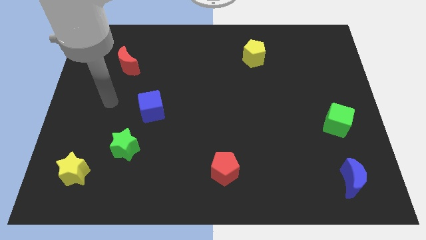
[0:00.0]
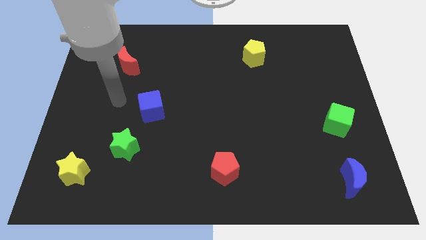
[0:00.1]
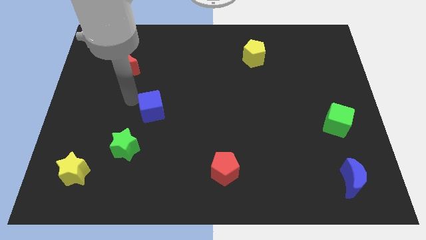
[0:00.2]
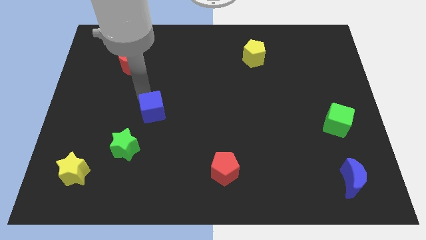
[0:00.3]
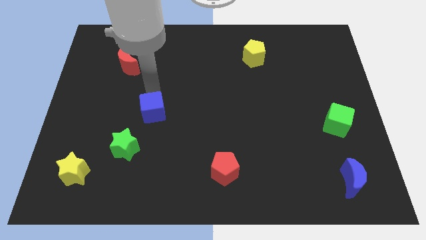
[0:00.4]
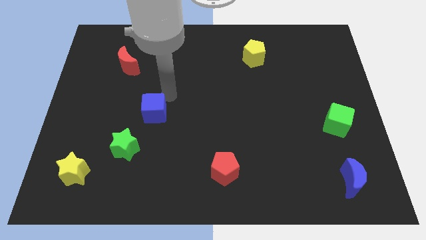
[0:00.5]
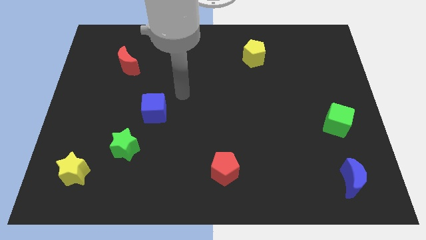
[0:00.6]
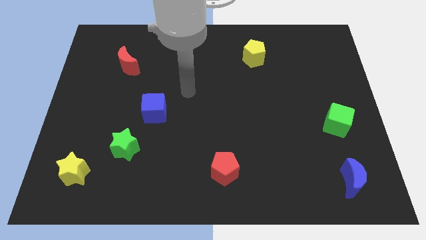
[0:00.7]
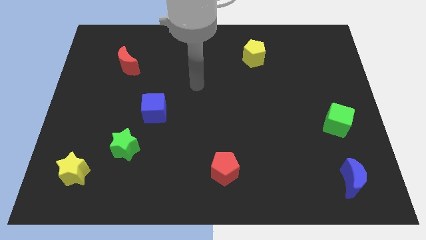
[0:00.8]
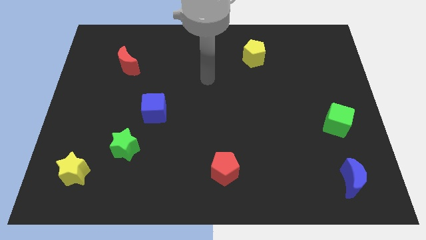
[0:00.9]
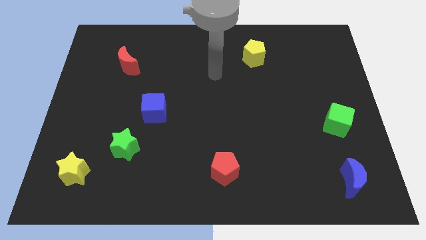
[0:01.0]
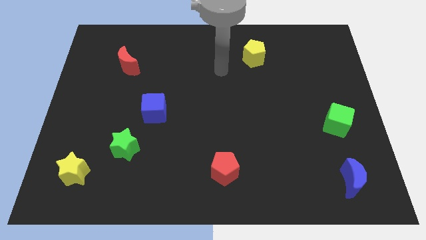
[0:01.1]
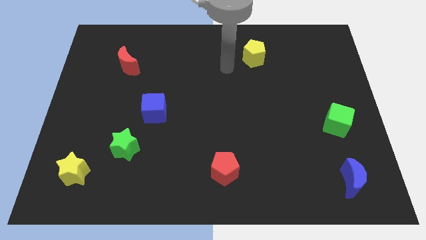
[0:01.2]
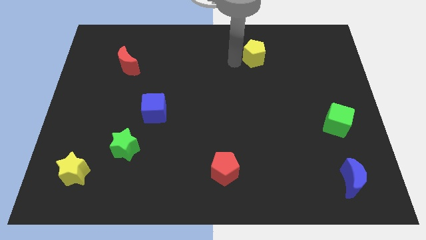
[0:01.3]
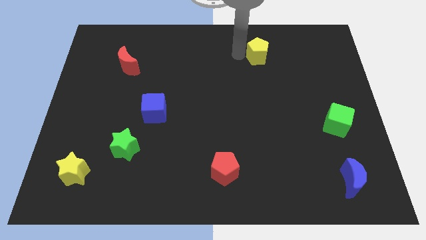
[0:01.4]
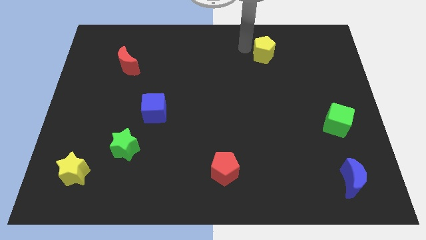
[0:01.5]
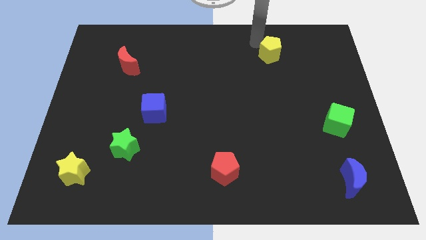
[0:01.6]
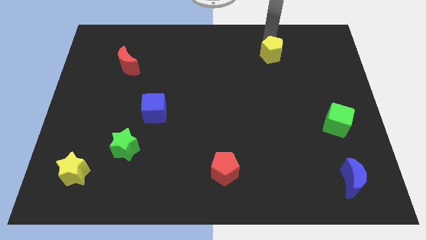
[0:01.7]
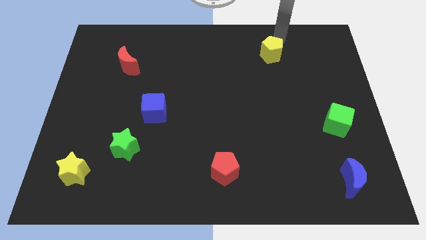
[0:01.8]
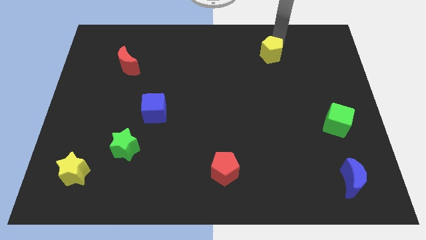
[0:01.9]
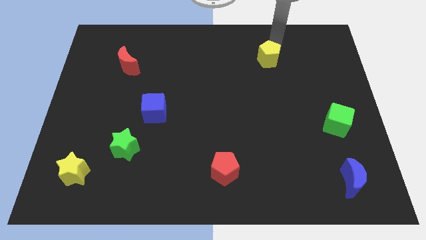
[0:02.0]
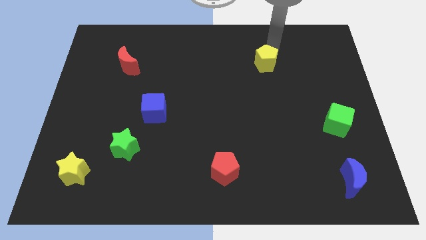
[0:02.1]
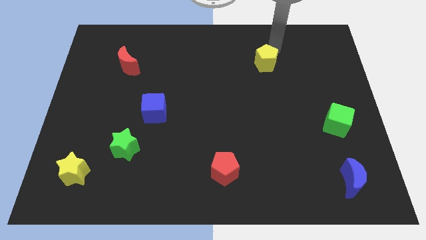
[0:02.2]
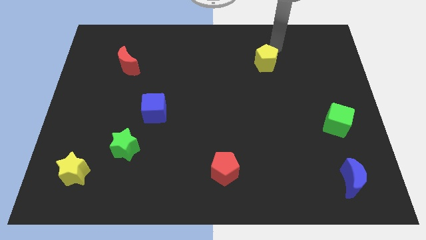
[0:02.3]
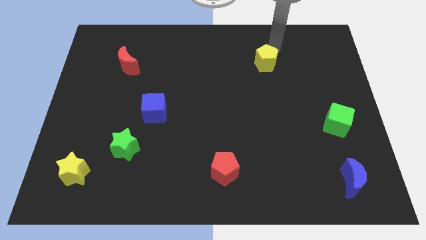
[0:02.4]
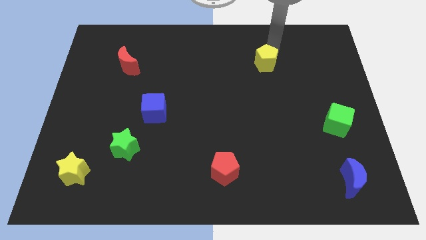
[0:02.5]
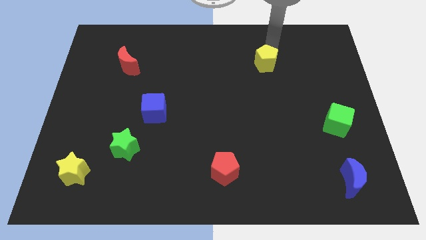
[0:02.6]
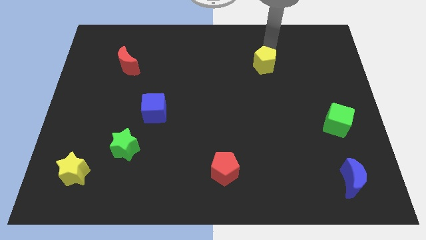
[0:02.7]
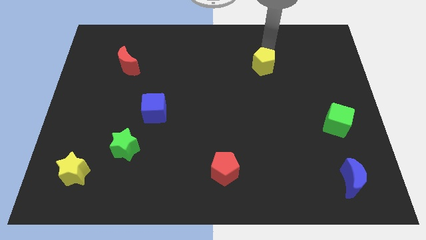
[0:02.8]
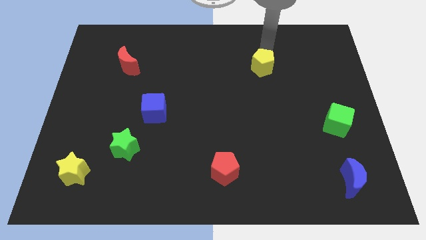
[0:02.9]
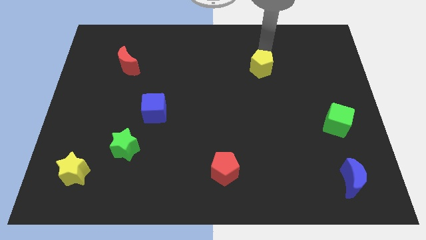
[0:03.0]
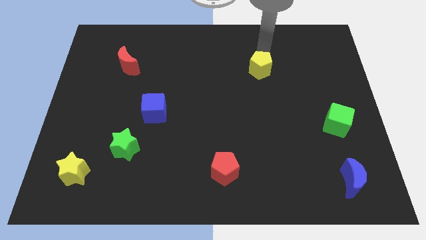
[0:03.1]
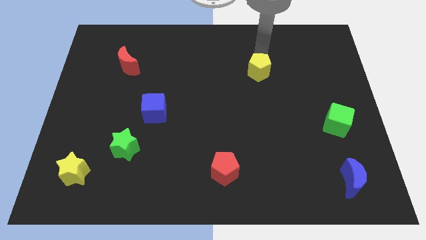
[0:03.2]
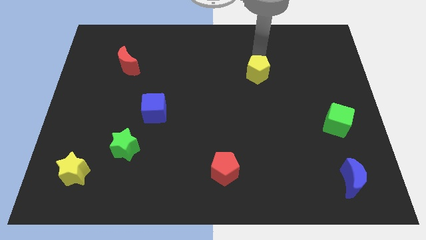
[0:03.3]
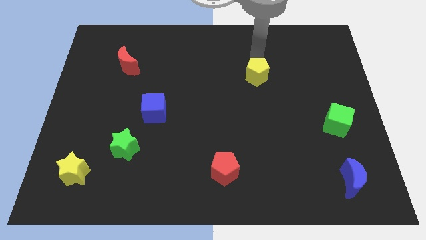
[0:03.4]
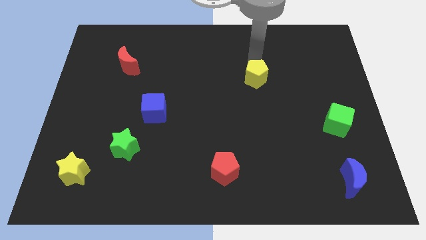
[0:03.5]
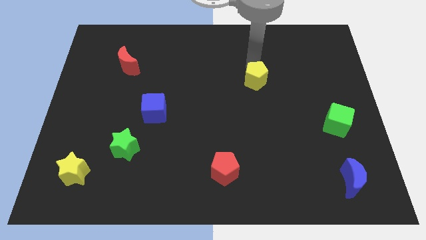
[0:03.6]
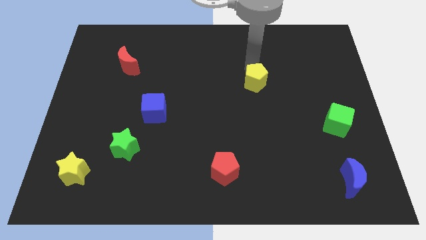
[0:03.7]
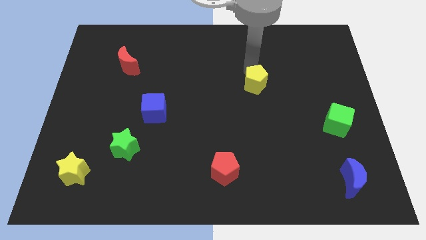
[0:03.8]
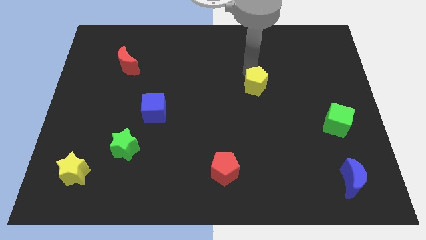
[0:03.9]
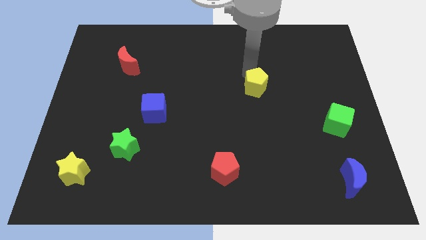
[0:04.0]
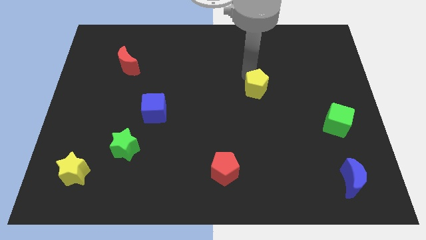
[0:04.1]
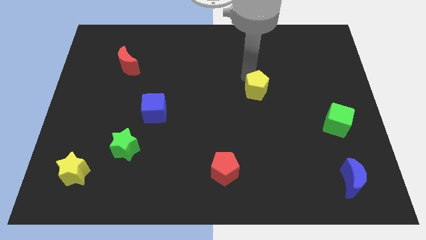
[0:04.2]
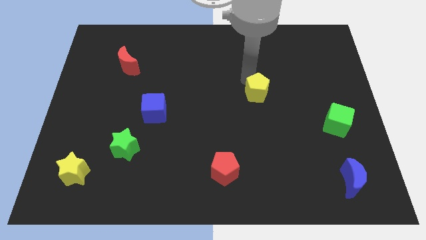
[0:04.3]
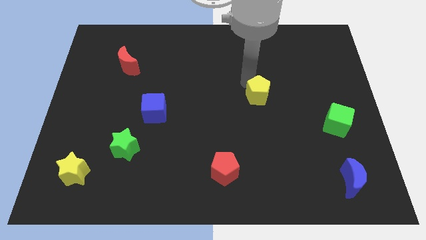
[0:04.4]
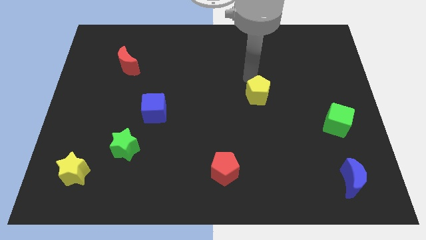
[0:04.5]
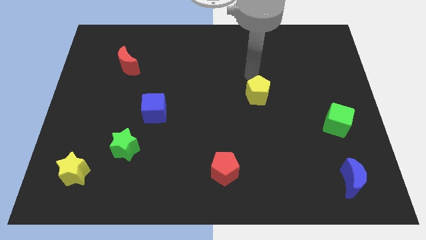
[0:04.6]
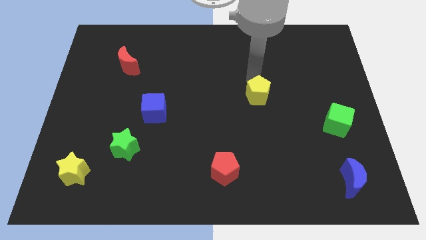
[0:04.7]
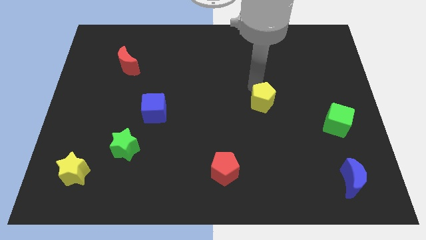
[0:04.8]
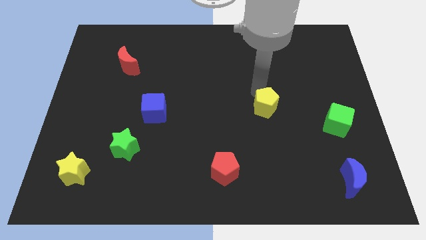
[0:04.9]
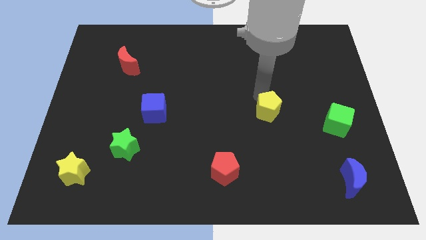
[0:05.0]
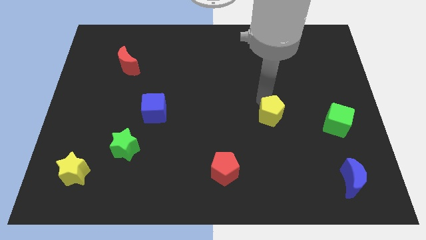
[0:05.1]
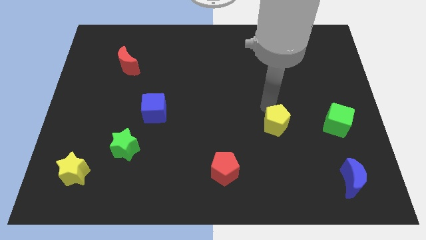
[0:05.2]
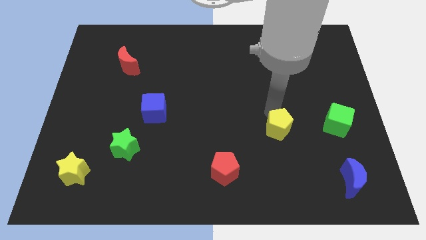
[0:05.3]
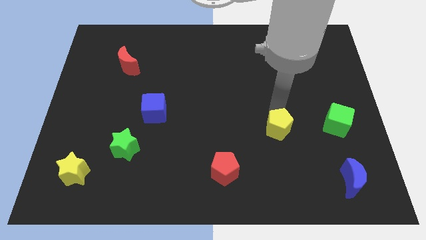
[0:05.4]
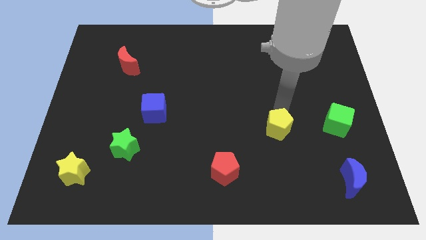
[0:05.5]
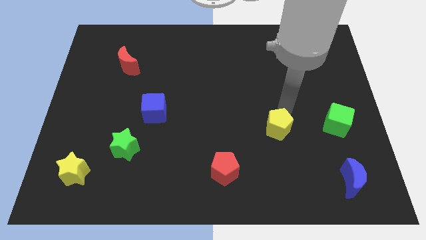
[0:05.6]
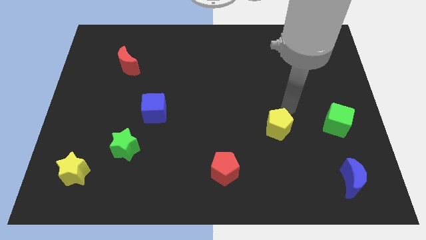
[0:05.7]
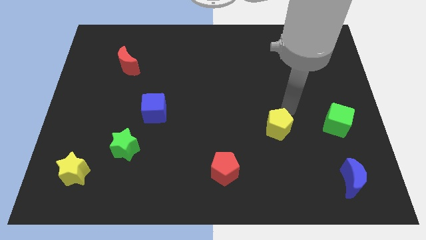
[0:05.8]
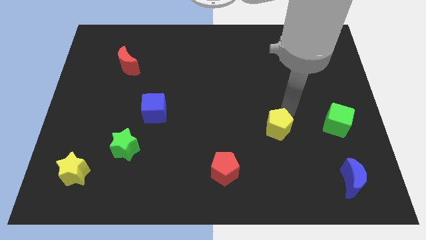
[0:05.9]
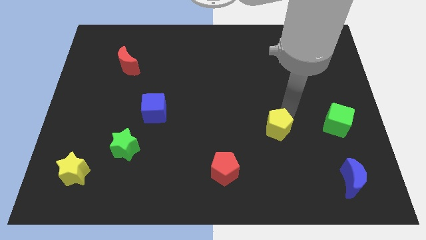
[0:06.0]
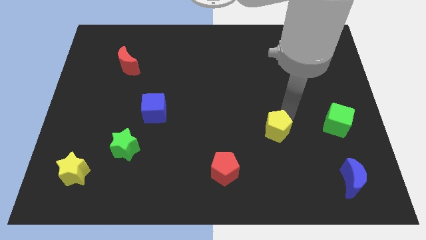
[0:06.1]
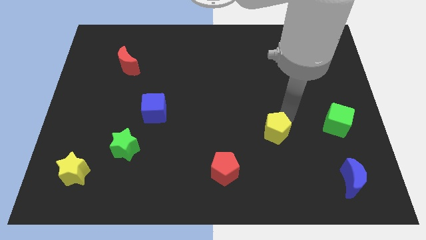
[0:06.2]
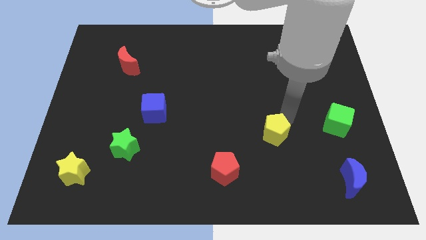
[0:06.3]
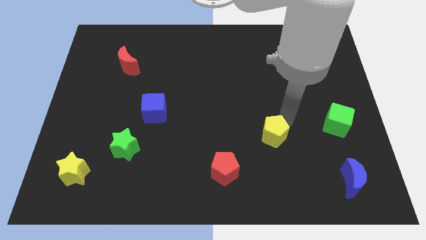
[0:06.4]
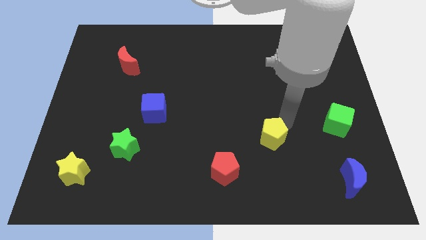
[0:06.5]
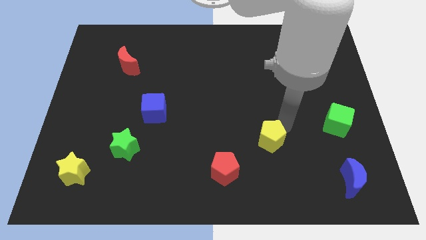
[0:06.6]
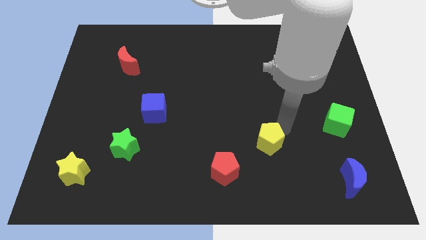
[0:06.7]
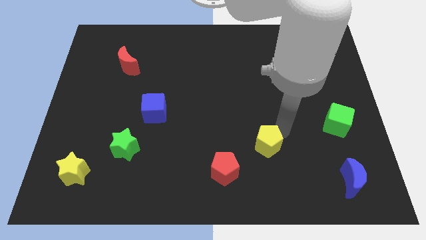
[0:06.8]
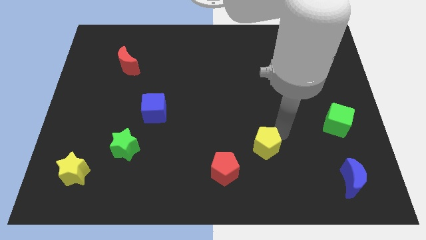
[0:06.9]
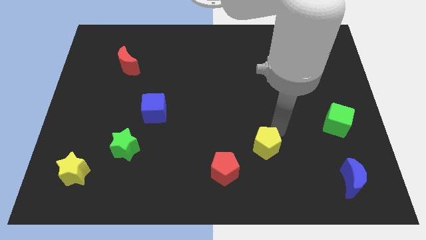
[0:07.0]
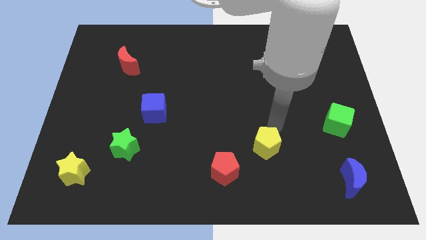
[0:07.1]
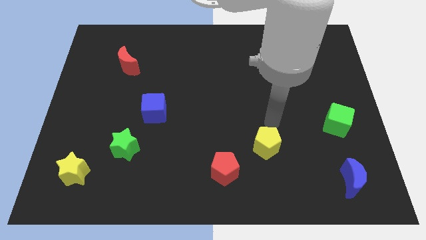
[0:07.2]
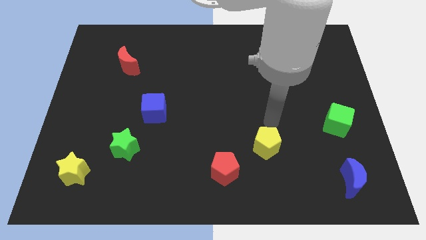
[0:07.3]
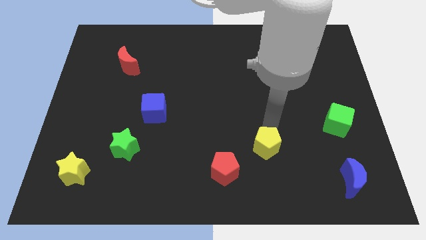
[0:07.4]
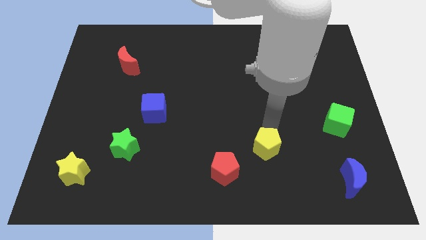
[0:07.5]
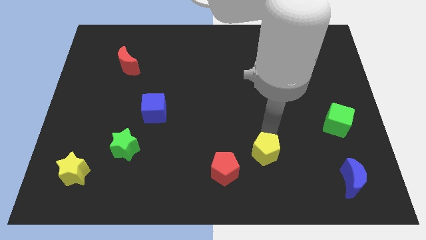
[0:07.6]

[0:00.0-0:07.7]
put the yellow pentagon to the right side of the red pentagon
